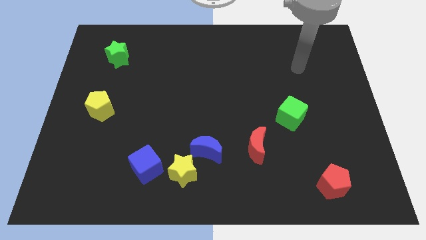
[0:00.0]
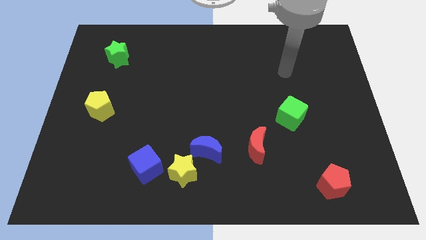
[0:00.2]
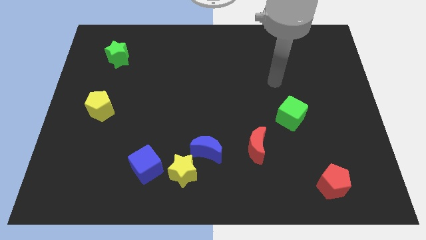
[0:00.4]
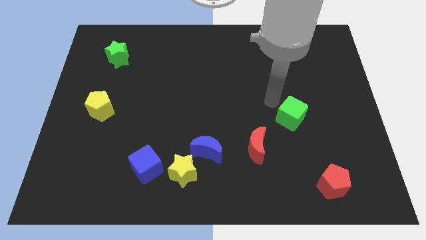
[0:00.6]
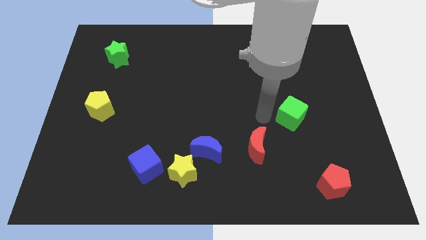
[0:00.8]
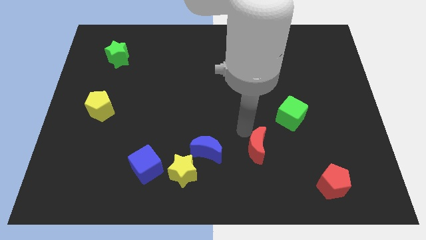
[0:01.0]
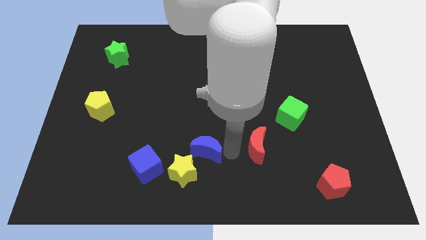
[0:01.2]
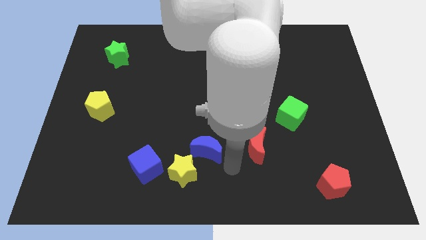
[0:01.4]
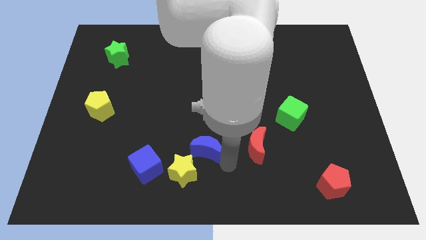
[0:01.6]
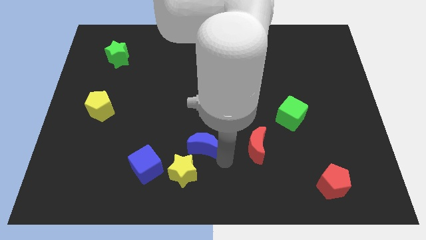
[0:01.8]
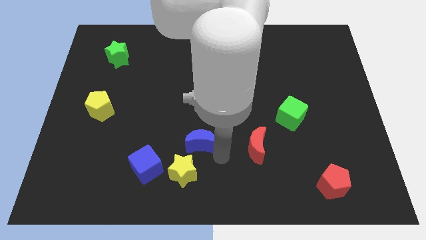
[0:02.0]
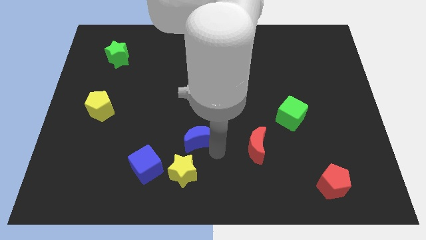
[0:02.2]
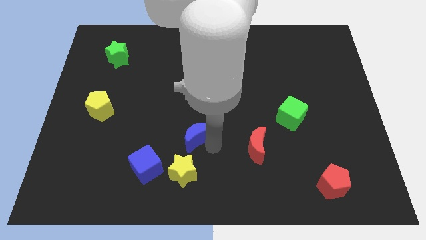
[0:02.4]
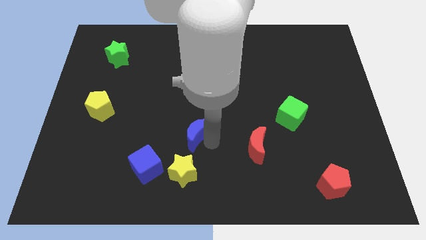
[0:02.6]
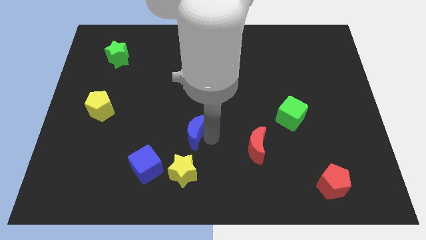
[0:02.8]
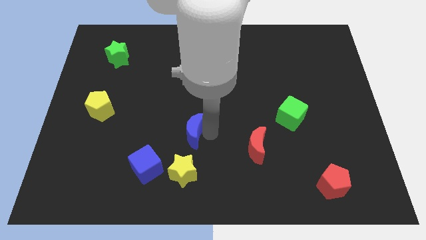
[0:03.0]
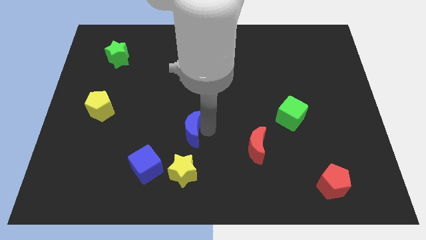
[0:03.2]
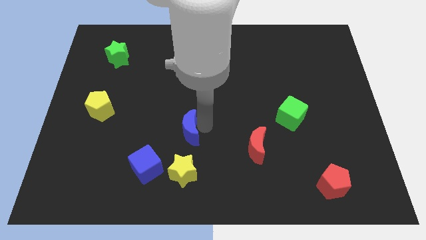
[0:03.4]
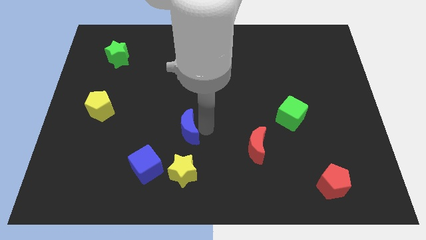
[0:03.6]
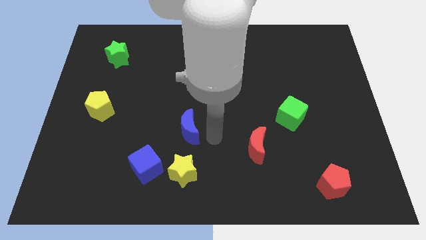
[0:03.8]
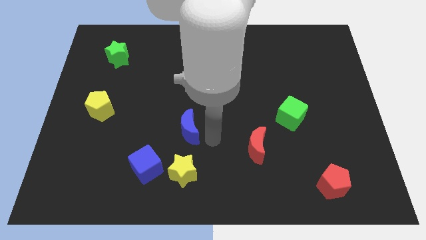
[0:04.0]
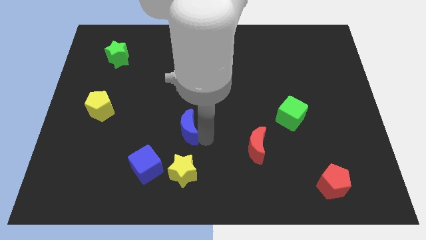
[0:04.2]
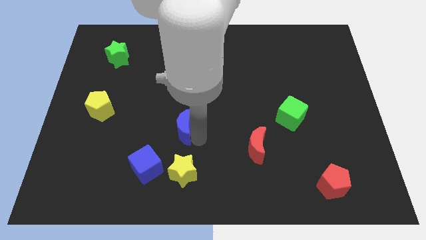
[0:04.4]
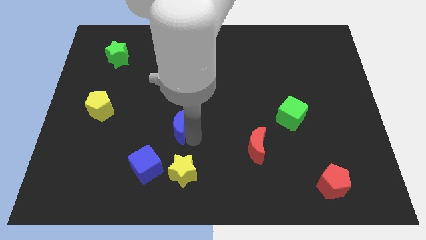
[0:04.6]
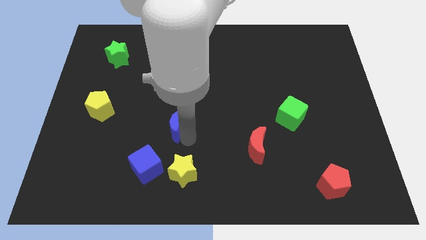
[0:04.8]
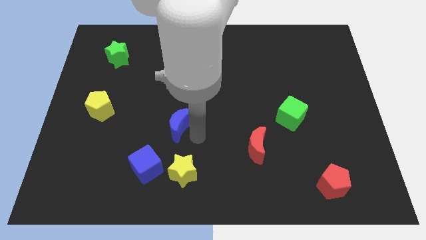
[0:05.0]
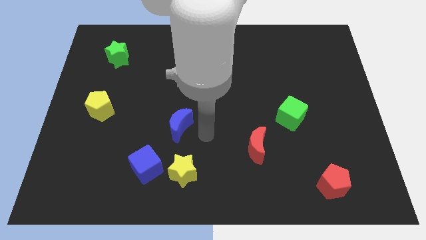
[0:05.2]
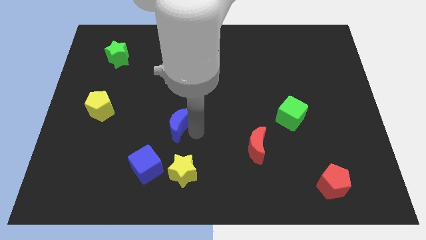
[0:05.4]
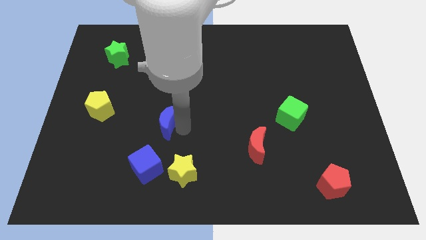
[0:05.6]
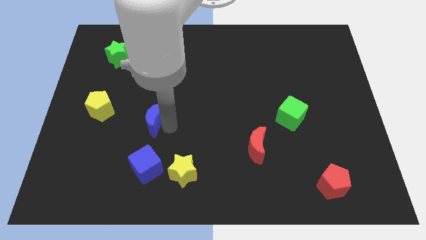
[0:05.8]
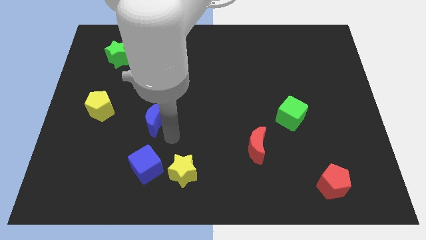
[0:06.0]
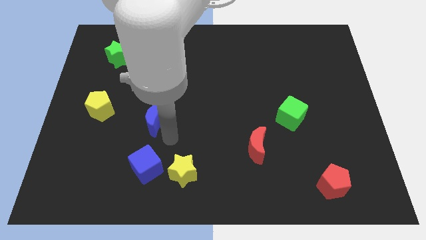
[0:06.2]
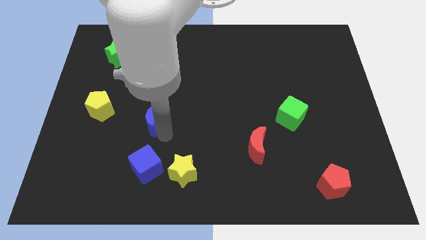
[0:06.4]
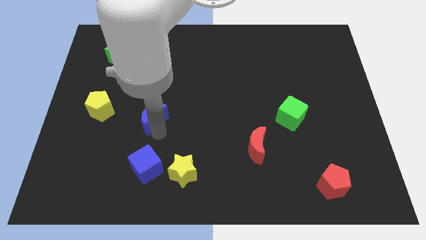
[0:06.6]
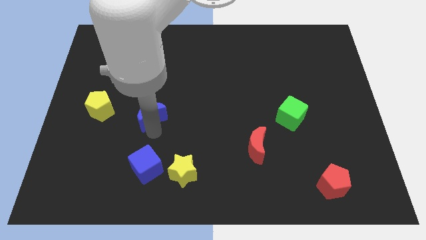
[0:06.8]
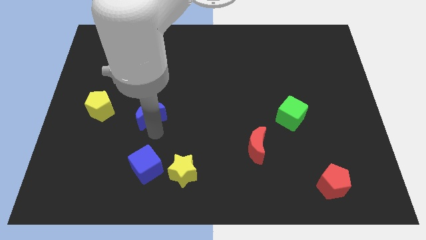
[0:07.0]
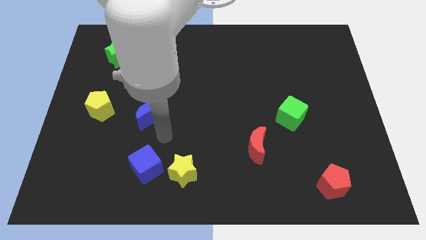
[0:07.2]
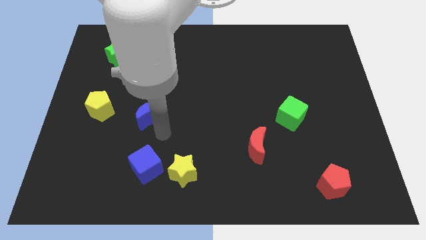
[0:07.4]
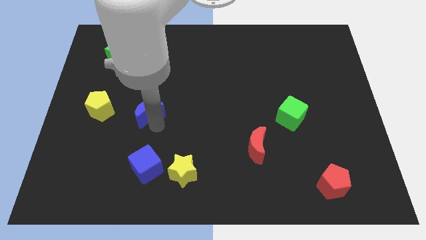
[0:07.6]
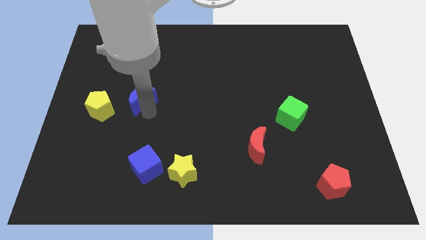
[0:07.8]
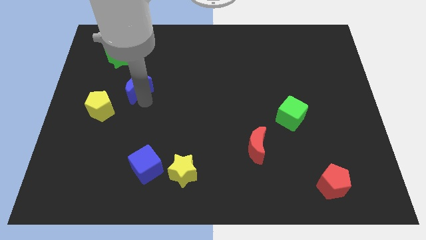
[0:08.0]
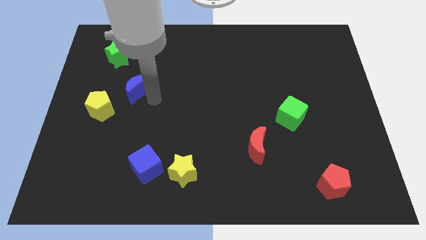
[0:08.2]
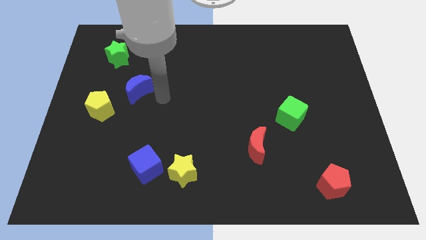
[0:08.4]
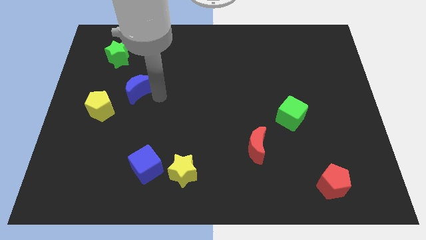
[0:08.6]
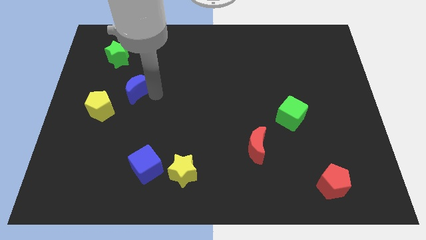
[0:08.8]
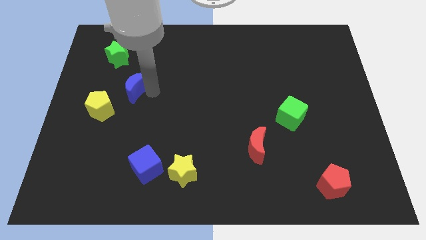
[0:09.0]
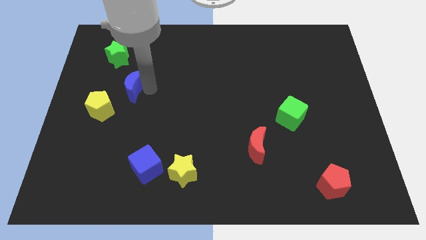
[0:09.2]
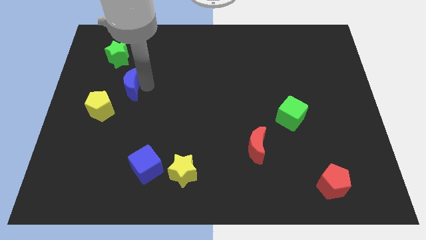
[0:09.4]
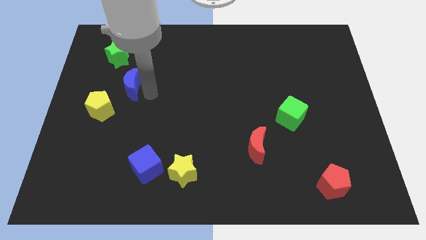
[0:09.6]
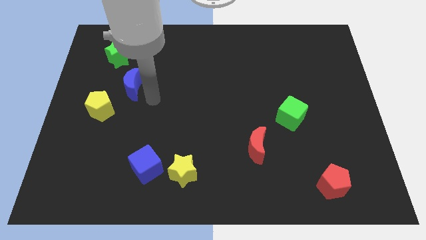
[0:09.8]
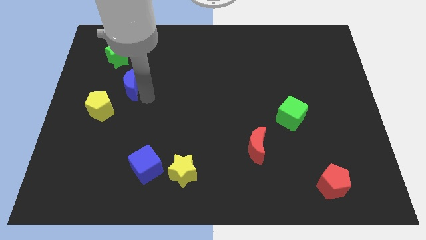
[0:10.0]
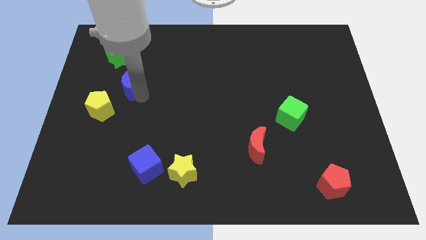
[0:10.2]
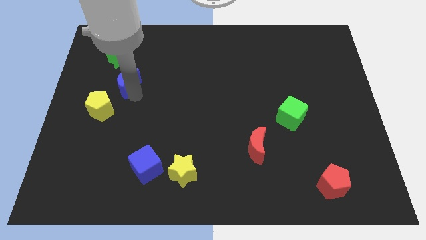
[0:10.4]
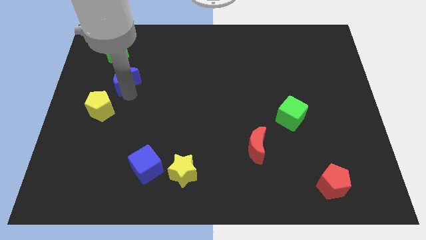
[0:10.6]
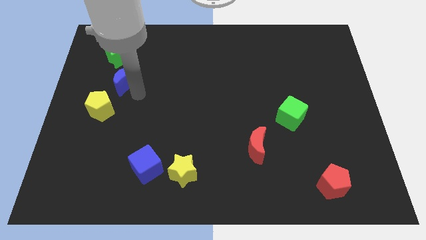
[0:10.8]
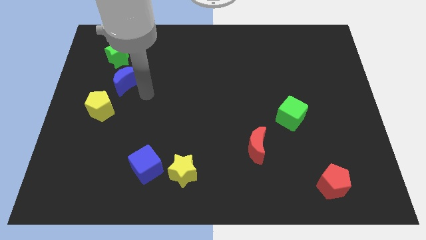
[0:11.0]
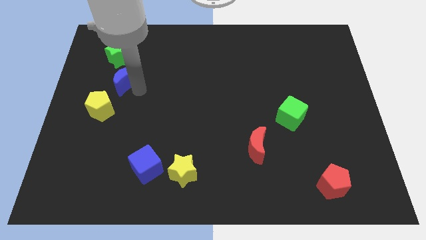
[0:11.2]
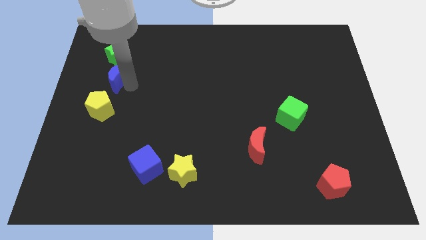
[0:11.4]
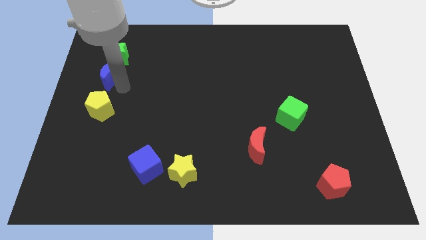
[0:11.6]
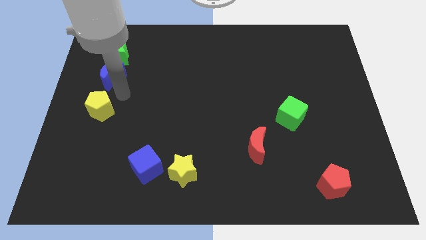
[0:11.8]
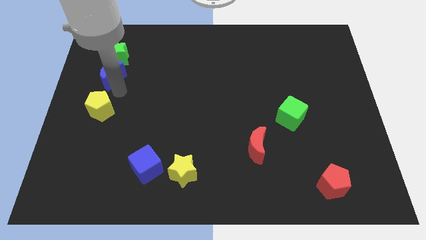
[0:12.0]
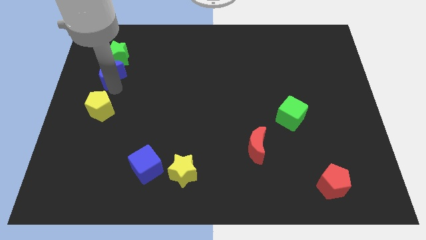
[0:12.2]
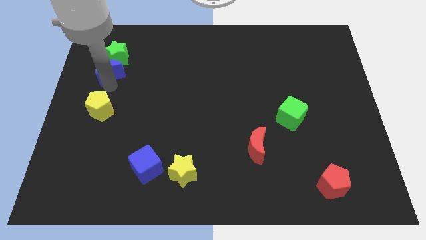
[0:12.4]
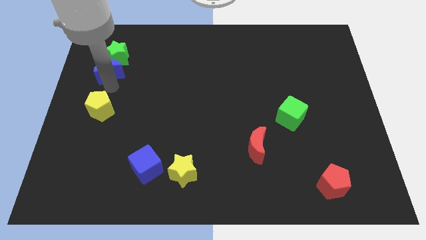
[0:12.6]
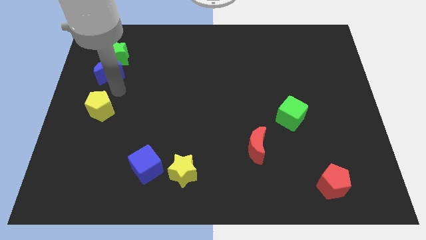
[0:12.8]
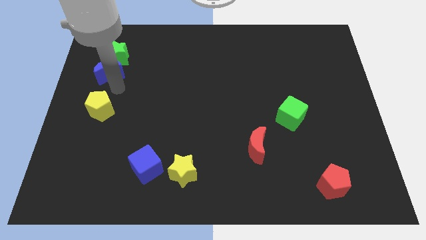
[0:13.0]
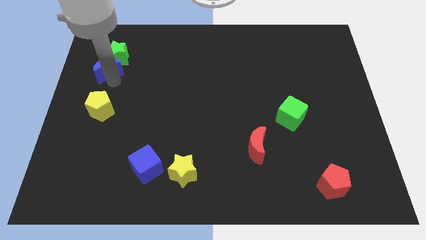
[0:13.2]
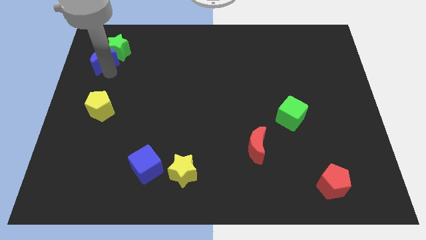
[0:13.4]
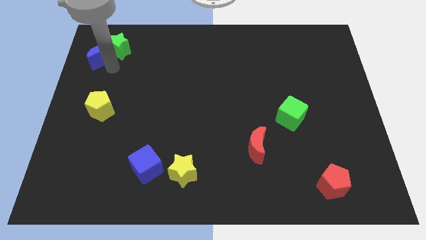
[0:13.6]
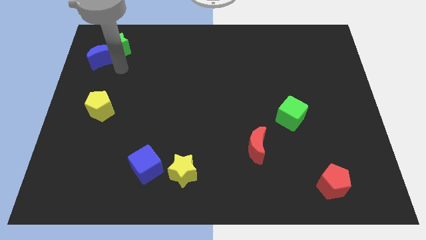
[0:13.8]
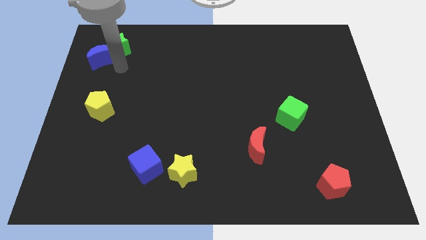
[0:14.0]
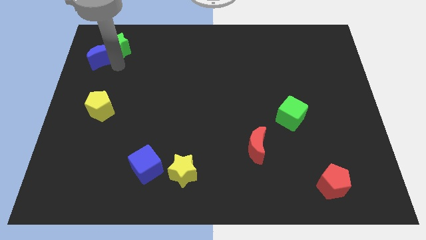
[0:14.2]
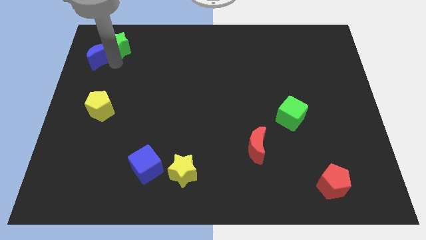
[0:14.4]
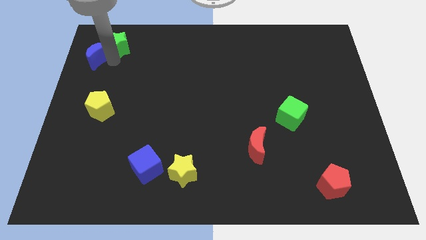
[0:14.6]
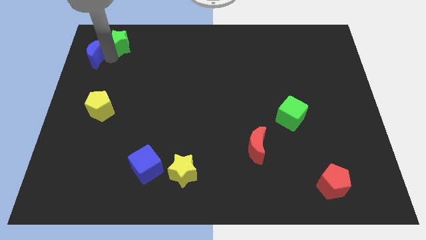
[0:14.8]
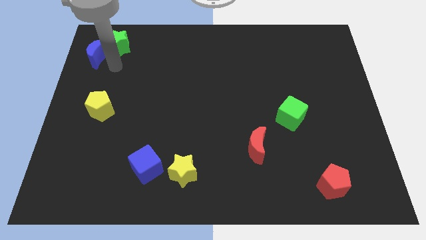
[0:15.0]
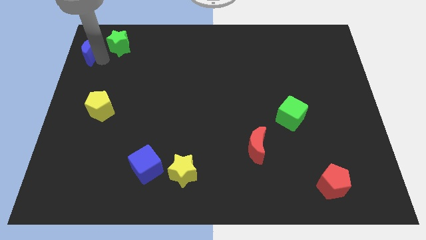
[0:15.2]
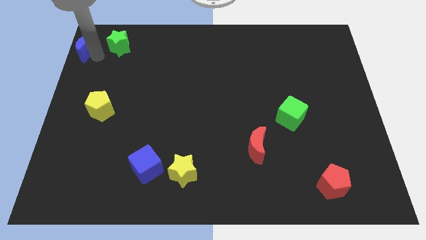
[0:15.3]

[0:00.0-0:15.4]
slide the blue moon to the top left of the board
